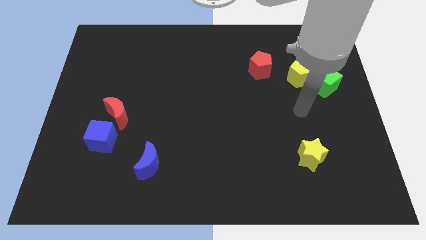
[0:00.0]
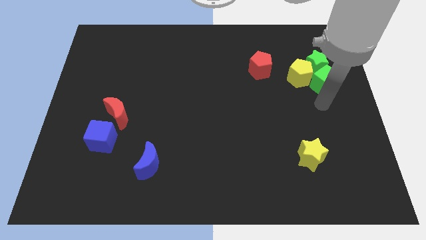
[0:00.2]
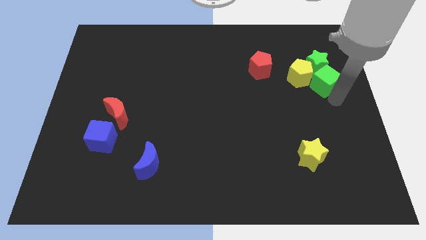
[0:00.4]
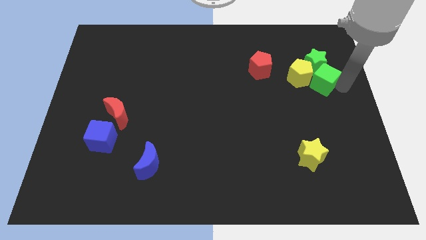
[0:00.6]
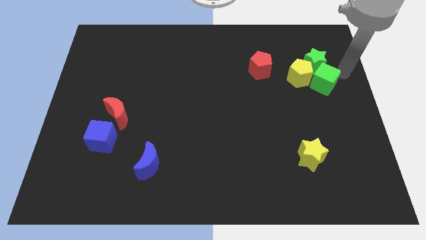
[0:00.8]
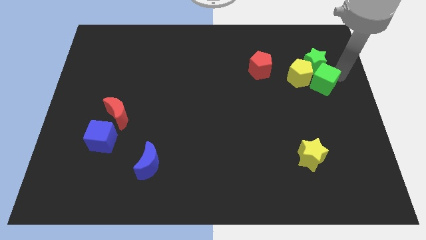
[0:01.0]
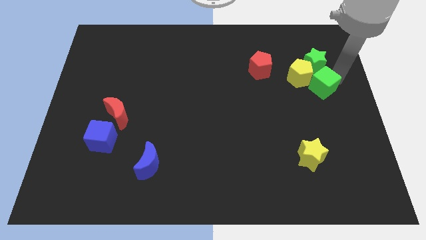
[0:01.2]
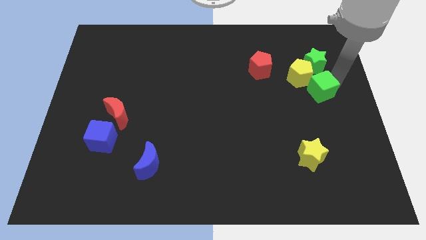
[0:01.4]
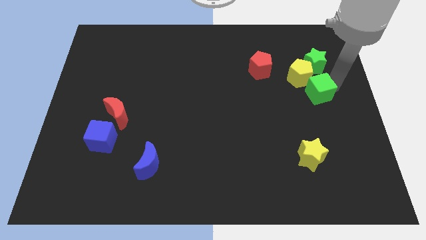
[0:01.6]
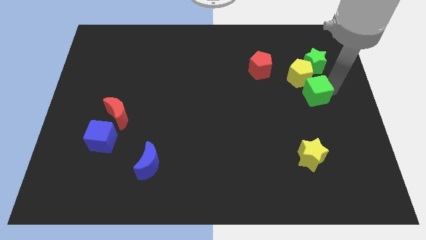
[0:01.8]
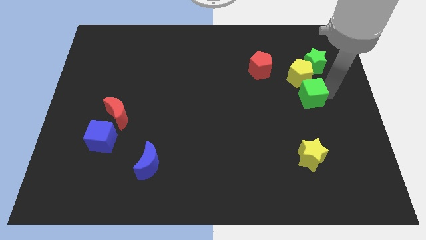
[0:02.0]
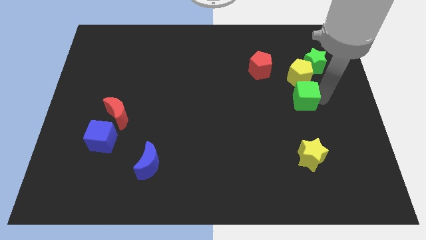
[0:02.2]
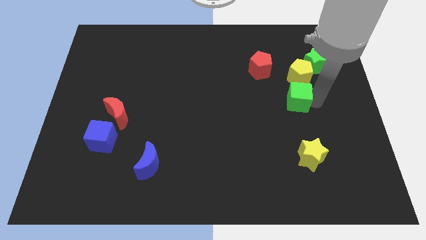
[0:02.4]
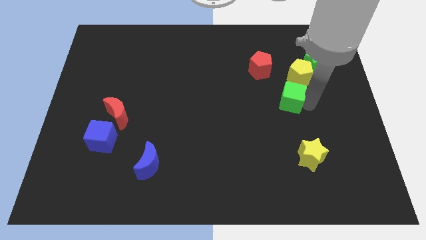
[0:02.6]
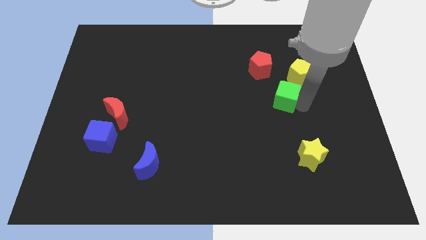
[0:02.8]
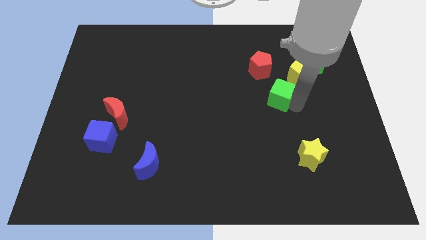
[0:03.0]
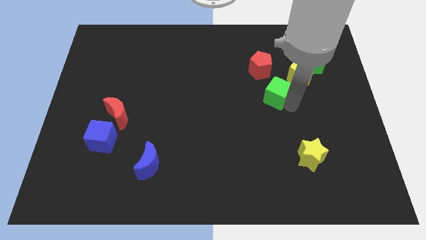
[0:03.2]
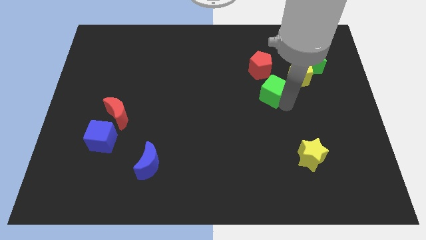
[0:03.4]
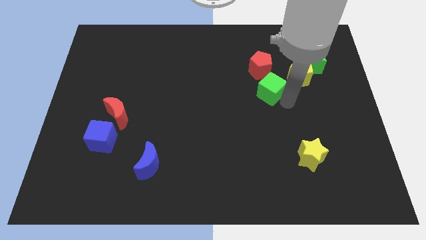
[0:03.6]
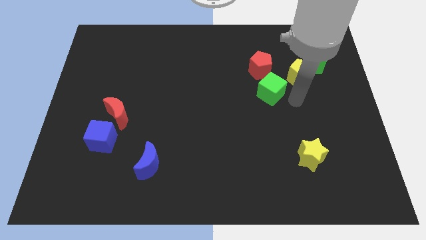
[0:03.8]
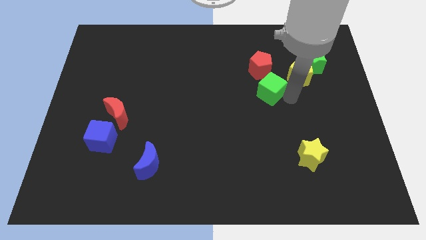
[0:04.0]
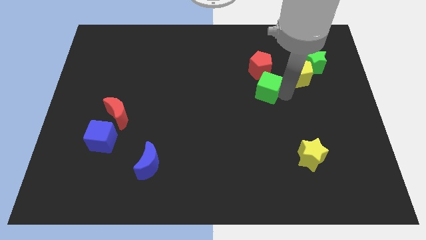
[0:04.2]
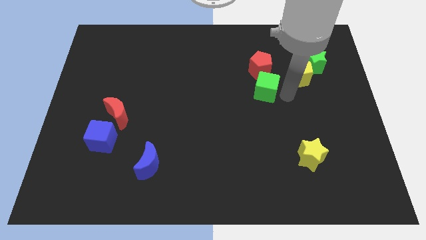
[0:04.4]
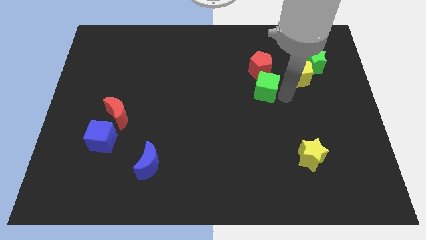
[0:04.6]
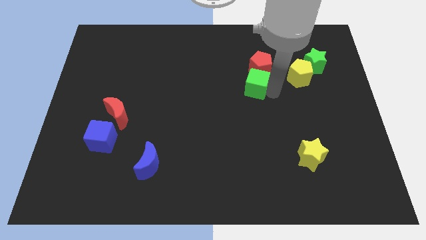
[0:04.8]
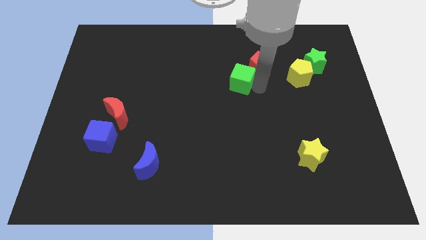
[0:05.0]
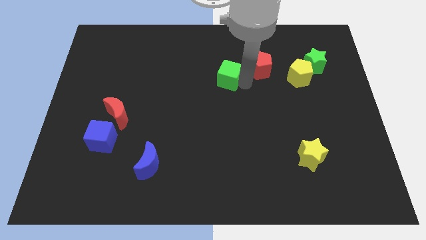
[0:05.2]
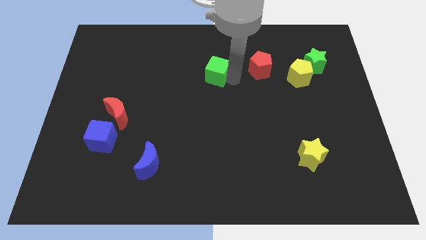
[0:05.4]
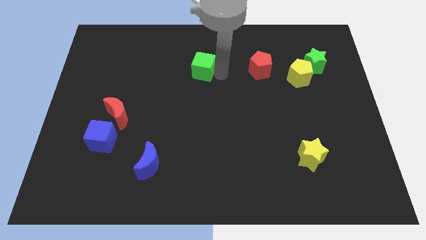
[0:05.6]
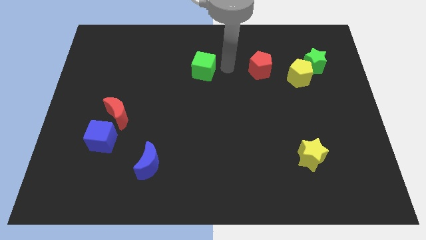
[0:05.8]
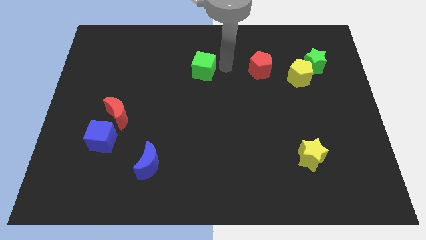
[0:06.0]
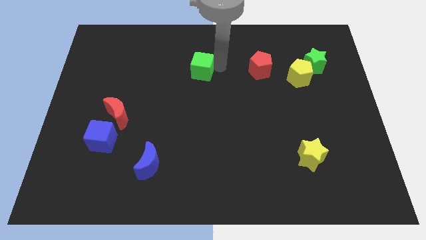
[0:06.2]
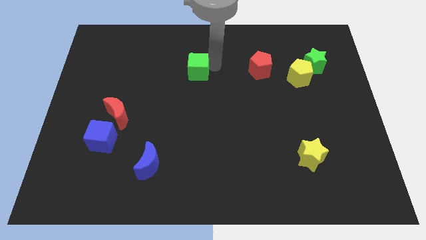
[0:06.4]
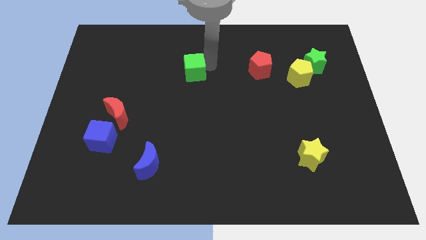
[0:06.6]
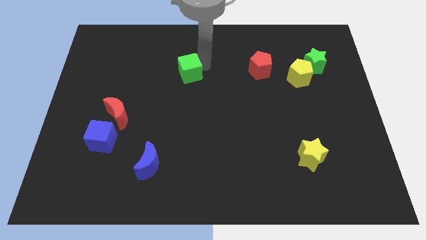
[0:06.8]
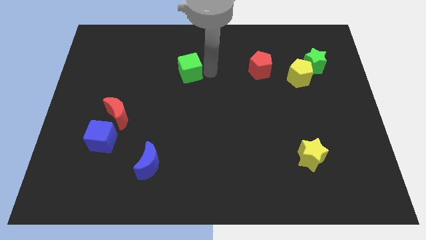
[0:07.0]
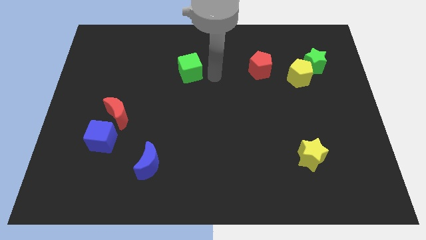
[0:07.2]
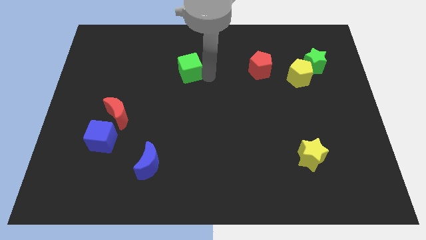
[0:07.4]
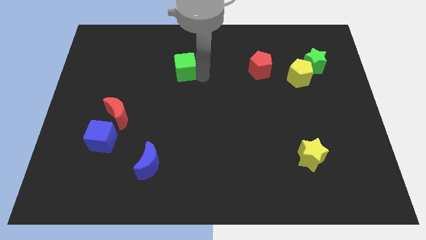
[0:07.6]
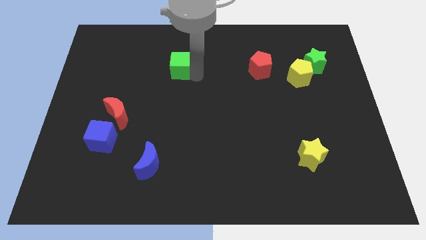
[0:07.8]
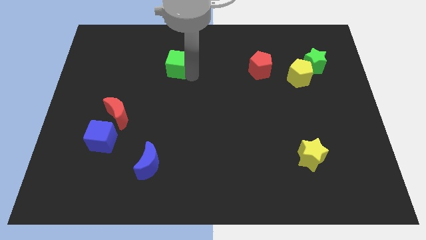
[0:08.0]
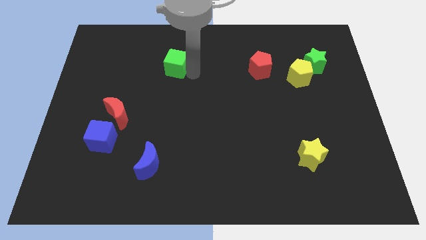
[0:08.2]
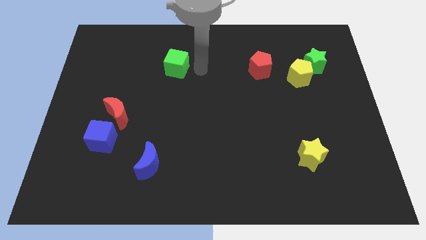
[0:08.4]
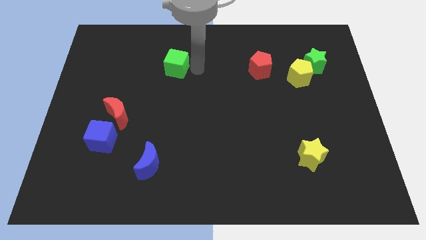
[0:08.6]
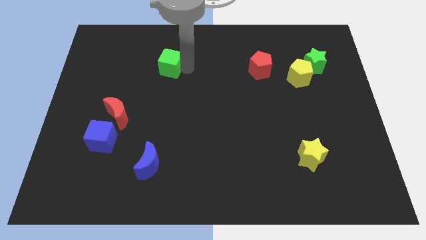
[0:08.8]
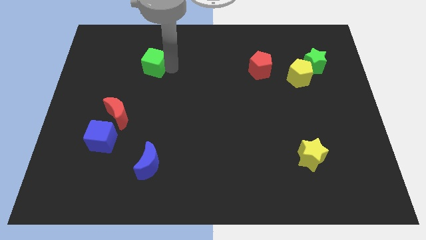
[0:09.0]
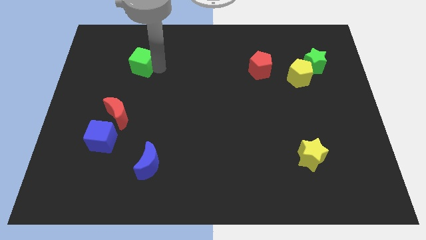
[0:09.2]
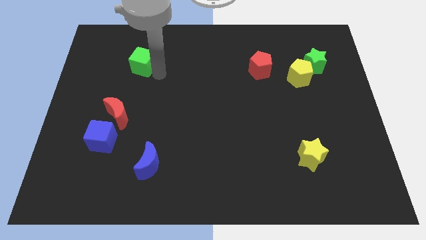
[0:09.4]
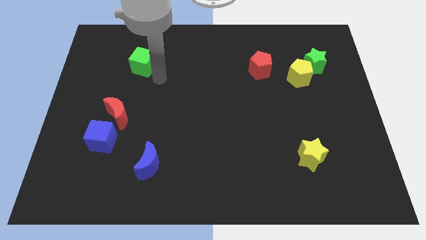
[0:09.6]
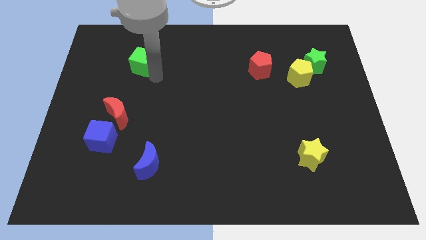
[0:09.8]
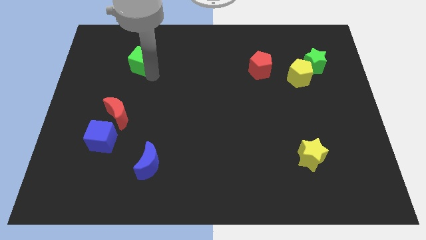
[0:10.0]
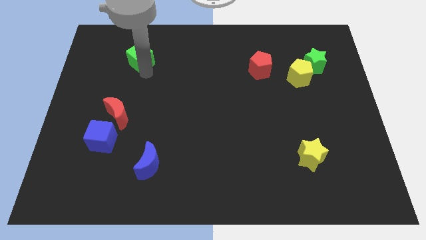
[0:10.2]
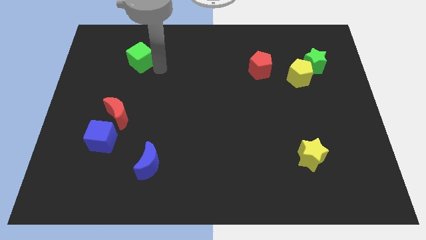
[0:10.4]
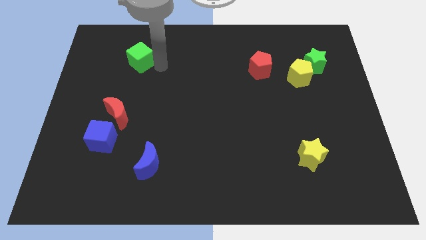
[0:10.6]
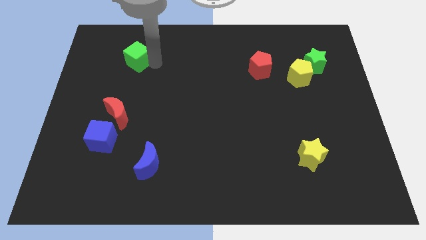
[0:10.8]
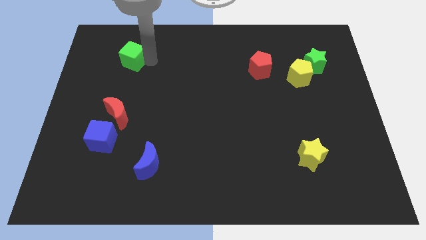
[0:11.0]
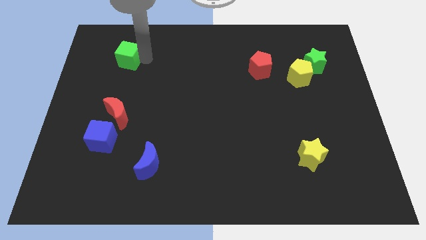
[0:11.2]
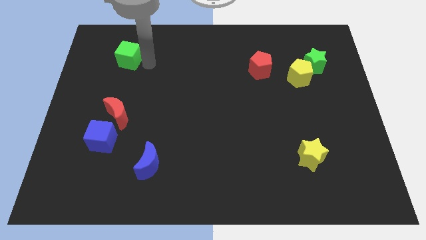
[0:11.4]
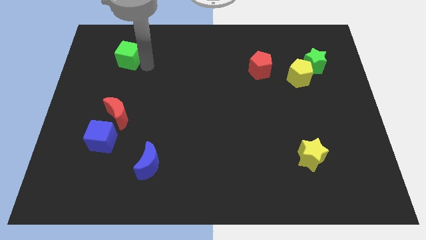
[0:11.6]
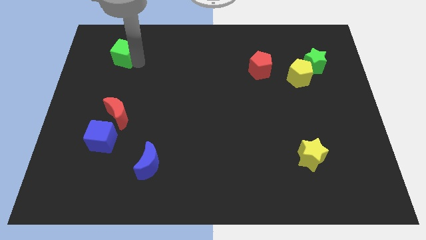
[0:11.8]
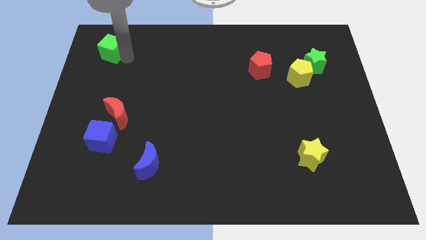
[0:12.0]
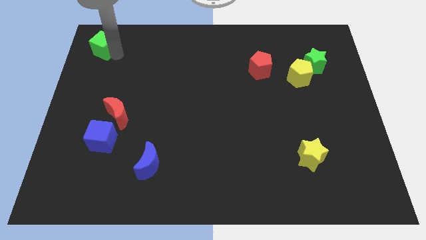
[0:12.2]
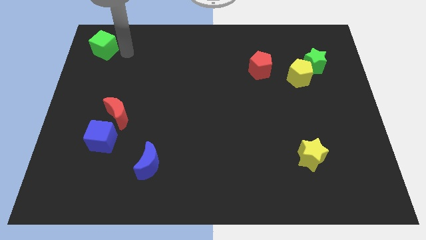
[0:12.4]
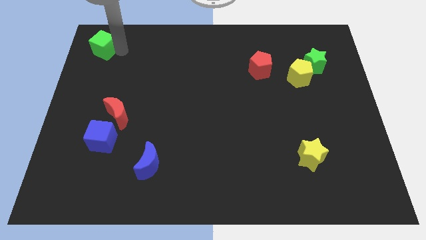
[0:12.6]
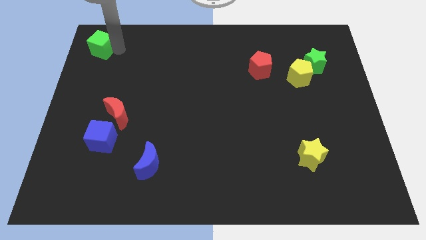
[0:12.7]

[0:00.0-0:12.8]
slide the green cube to the top left of the board
